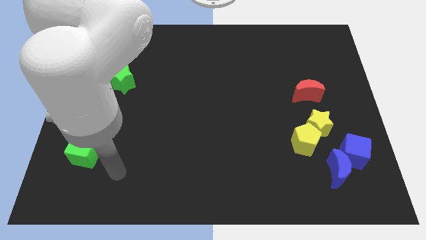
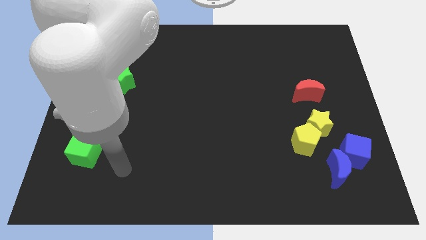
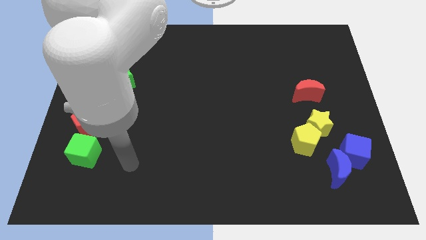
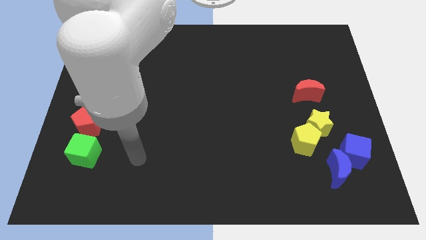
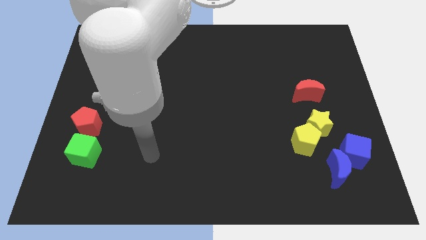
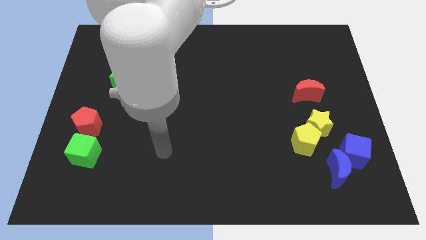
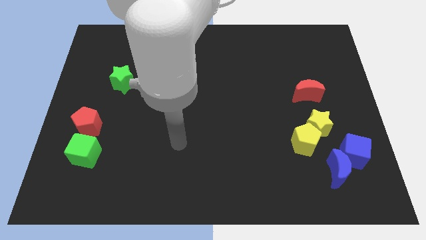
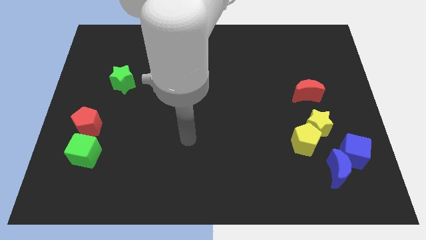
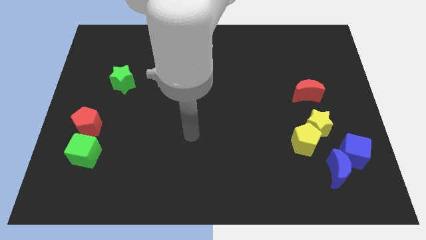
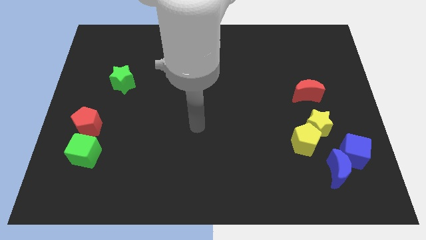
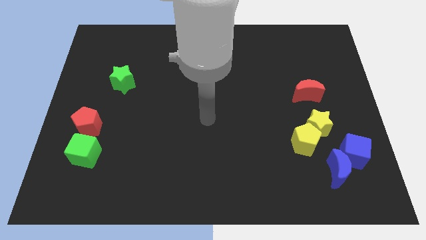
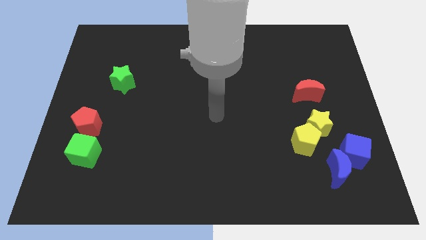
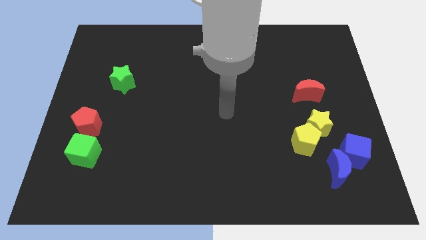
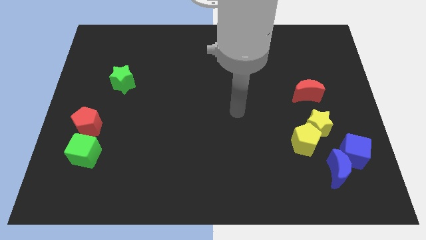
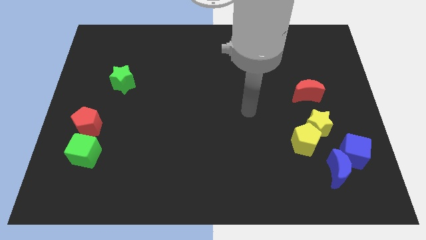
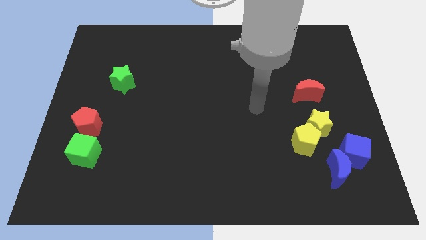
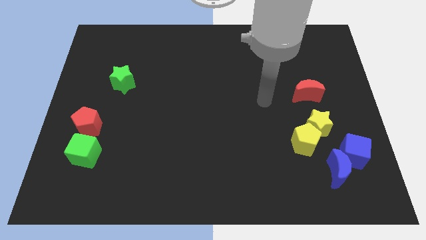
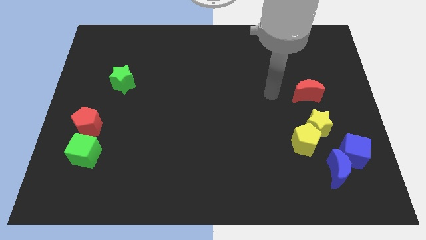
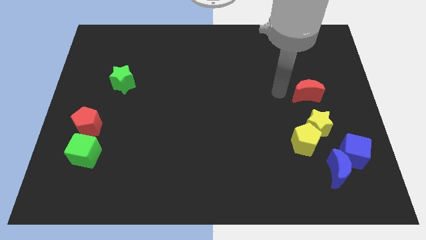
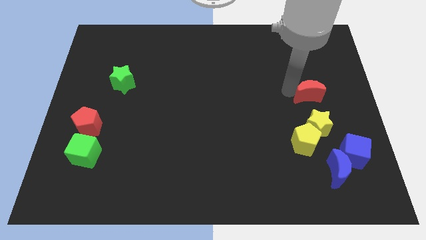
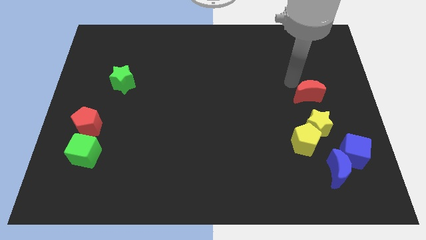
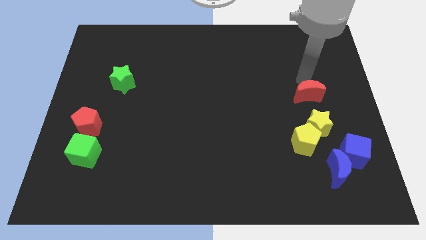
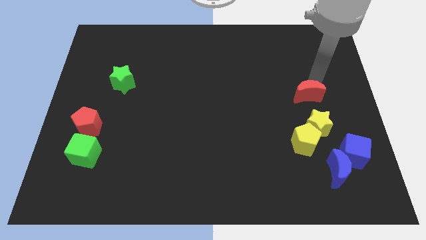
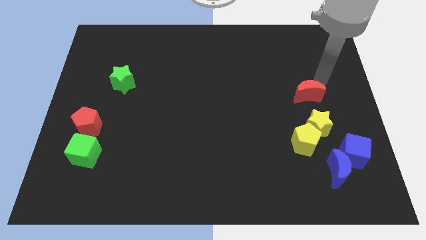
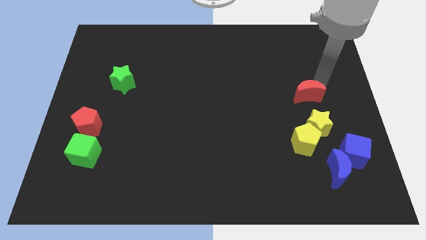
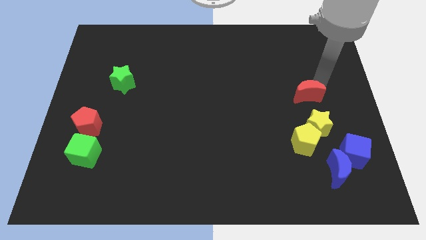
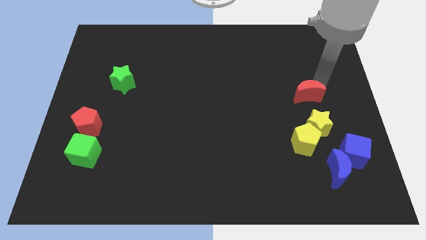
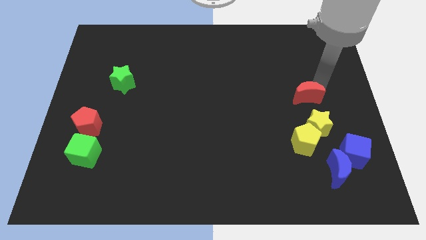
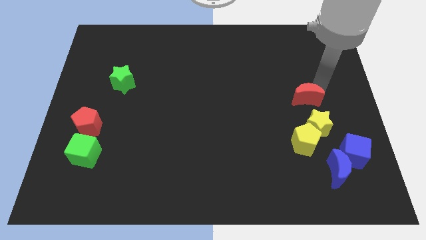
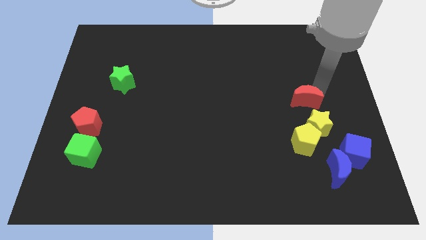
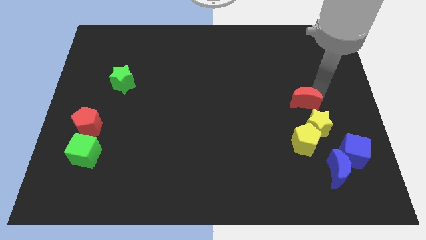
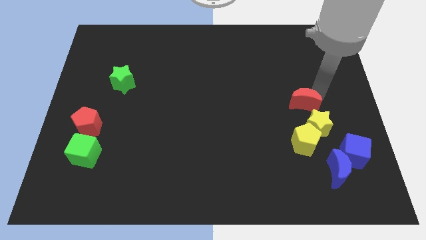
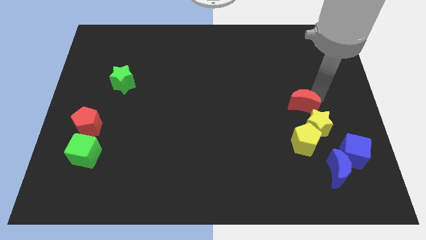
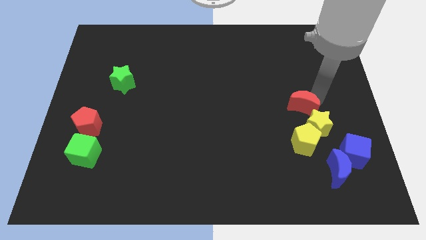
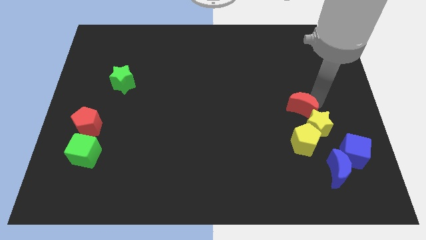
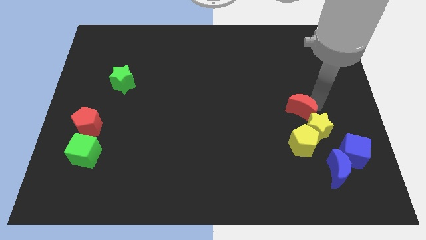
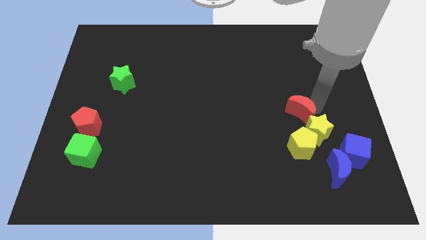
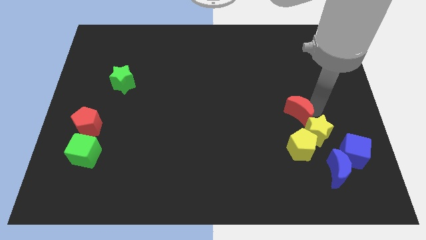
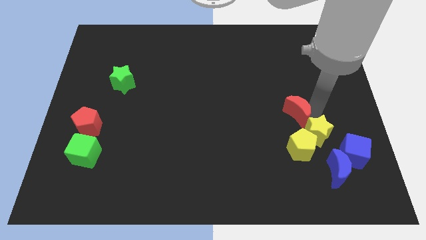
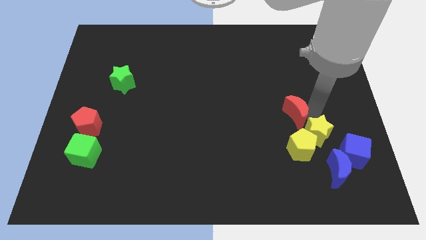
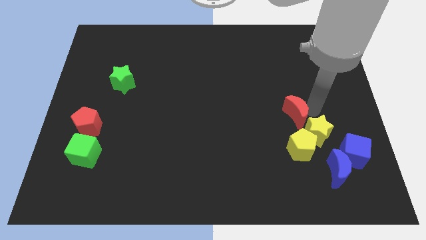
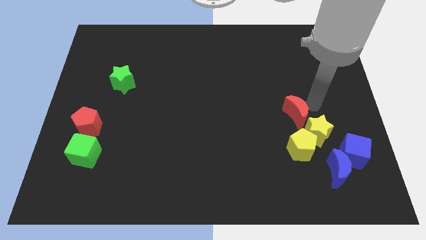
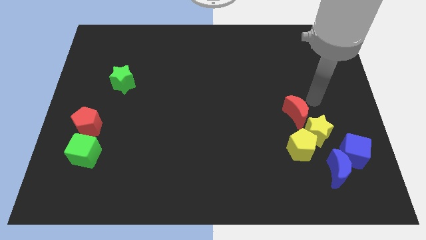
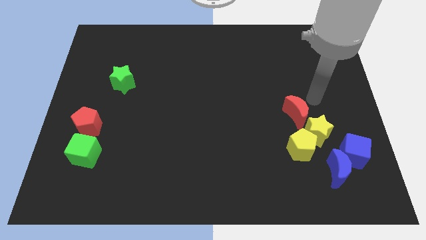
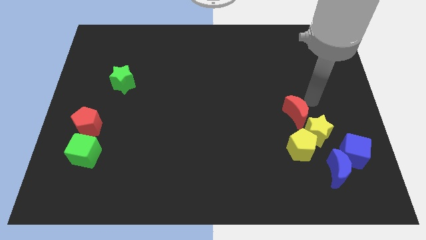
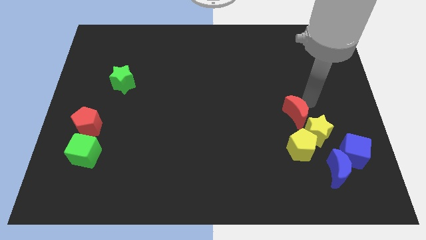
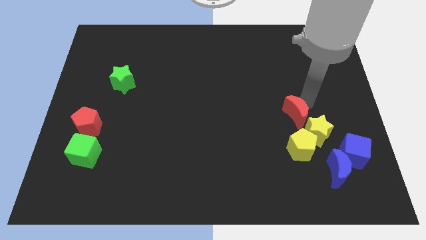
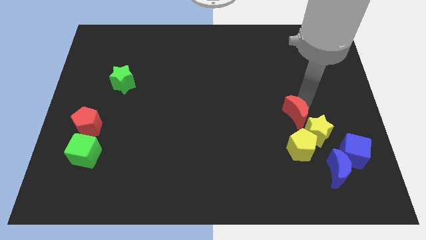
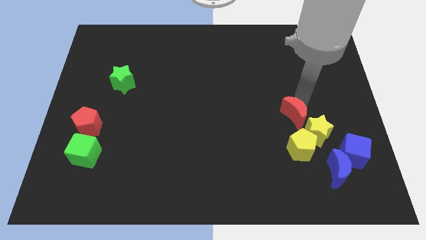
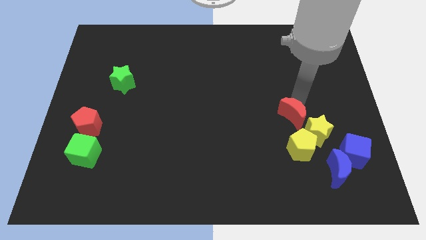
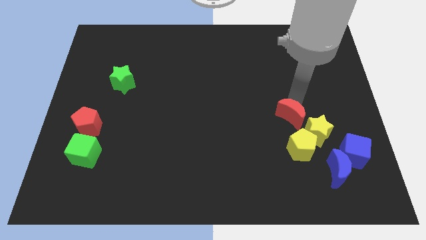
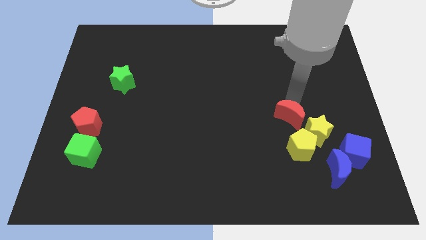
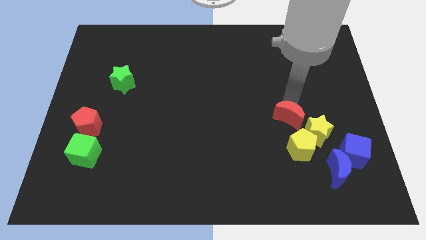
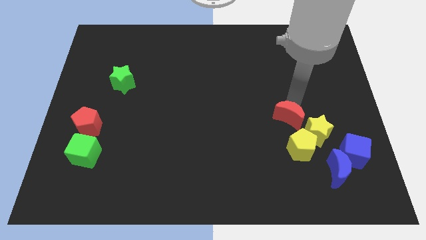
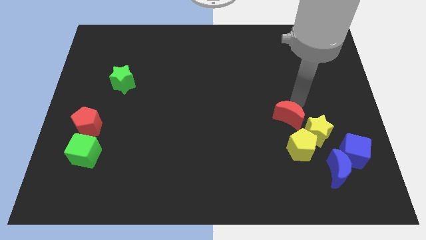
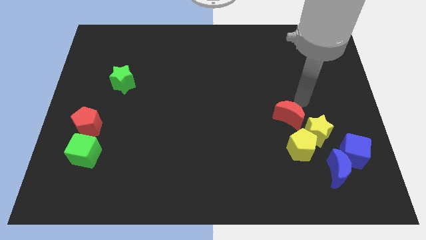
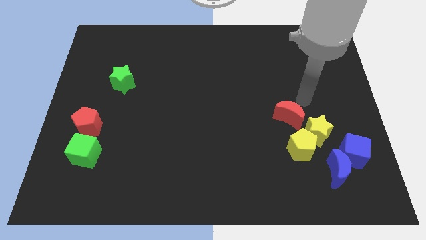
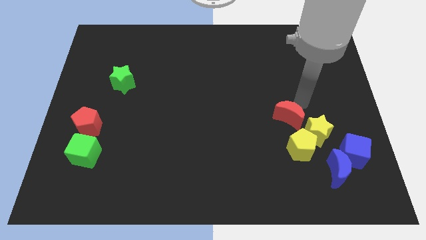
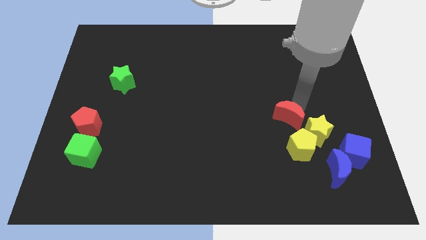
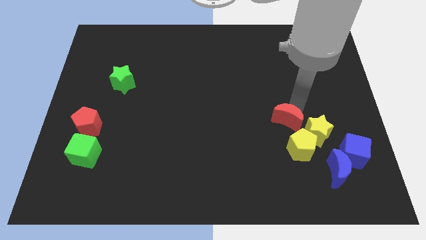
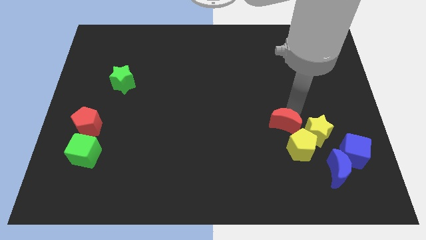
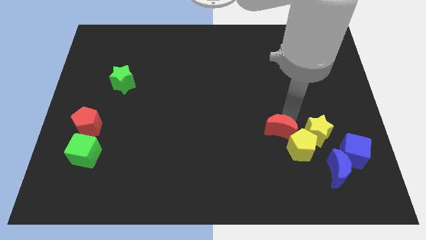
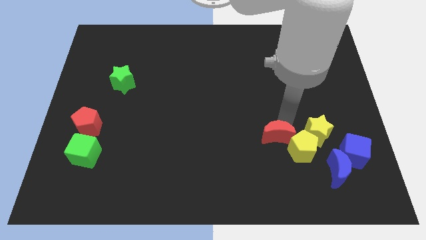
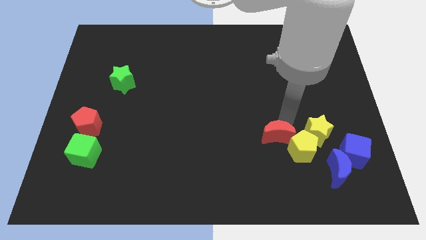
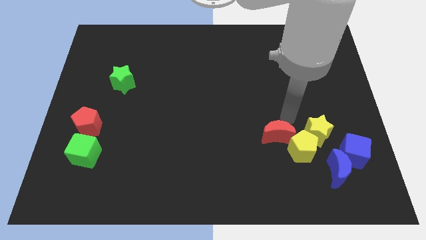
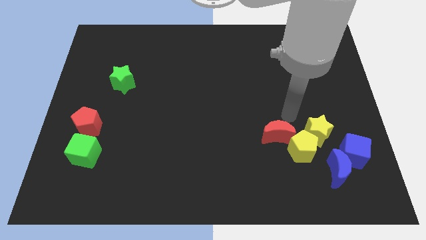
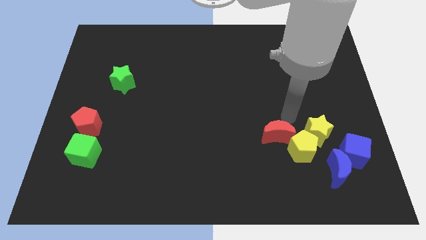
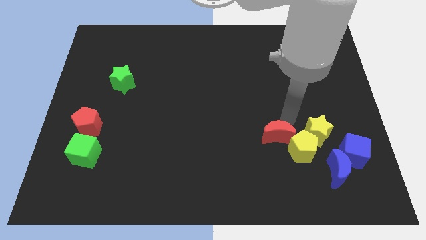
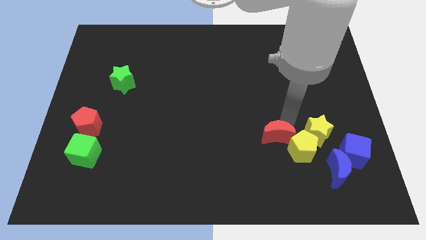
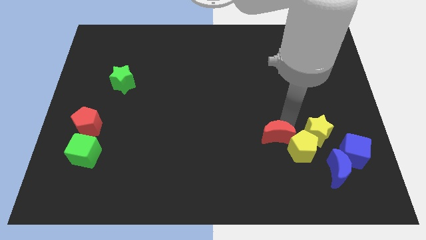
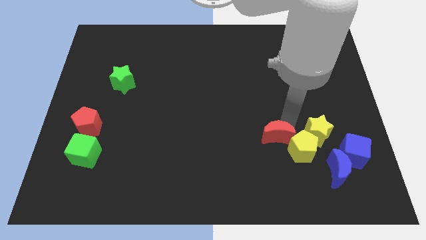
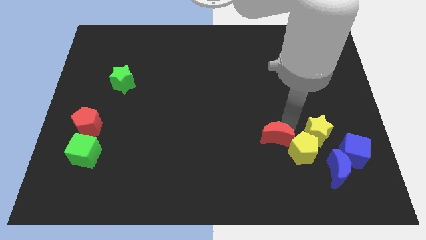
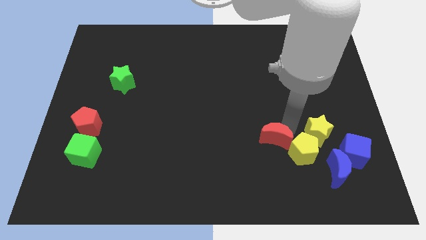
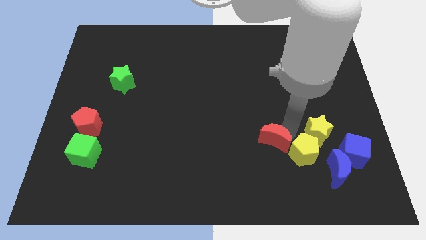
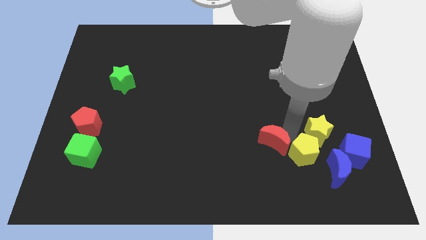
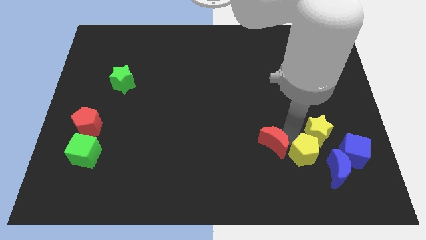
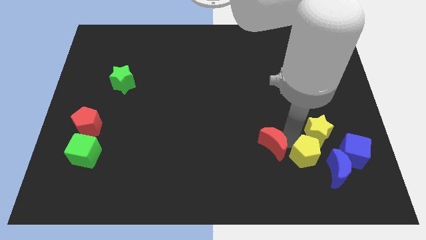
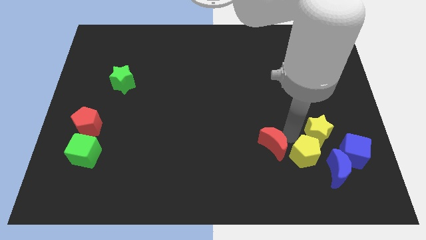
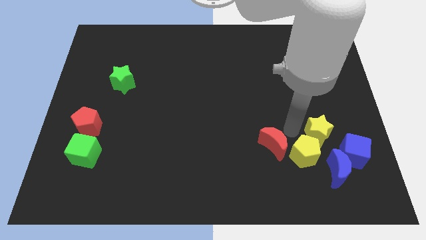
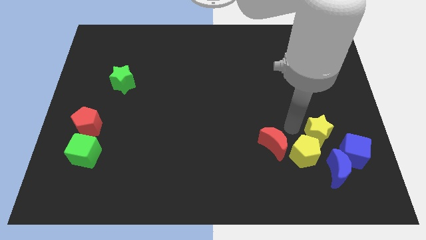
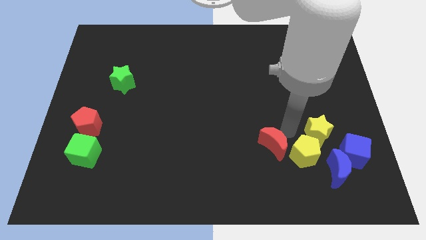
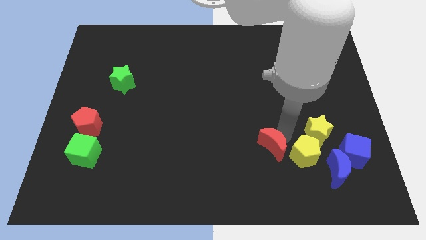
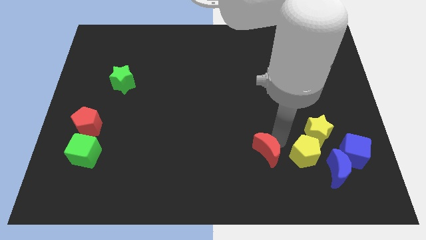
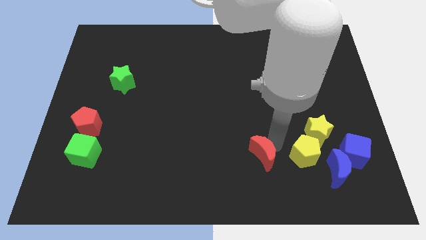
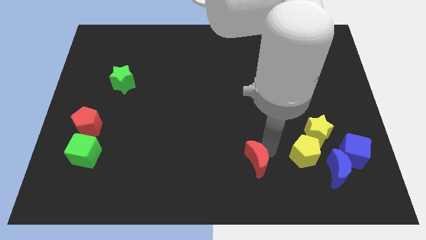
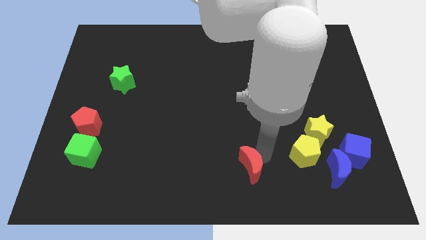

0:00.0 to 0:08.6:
put the red moon to the bottom
